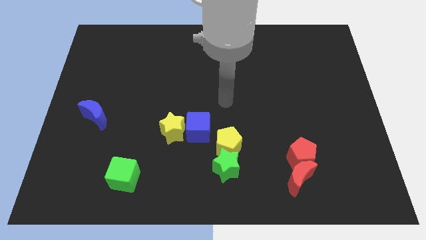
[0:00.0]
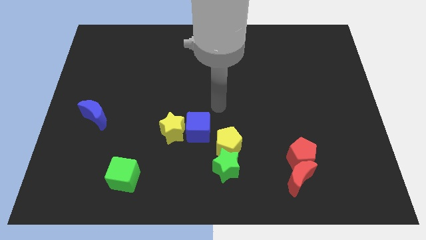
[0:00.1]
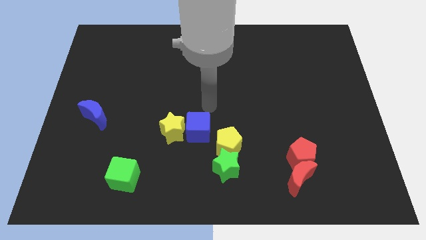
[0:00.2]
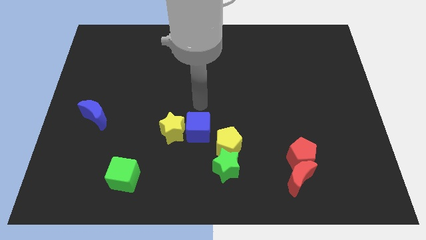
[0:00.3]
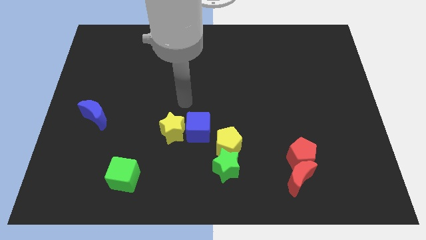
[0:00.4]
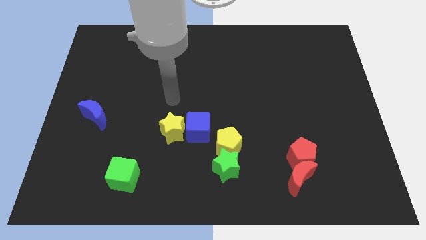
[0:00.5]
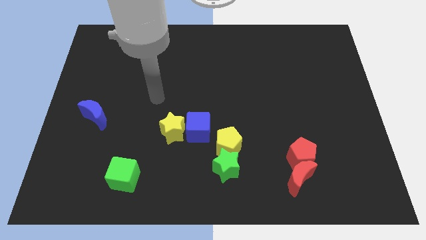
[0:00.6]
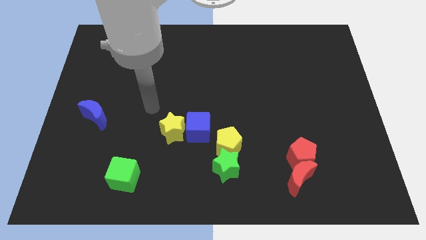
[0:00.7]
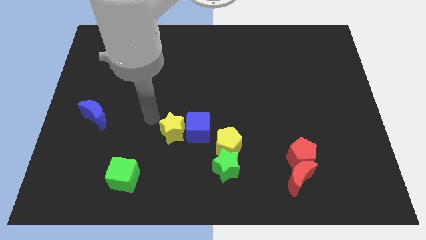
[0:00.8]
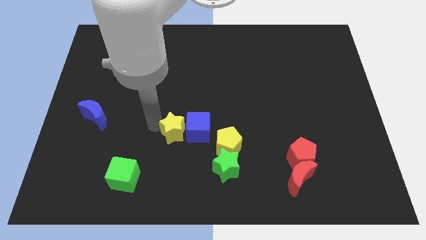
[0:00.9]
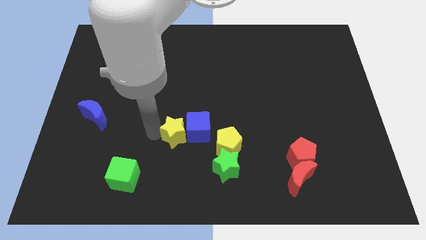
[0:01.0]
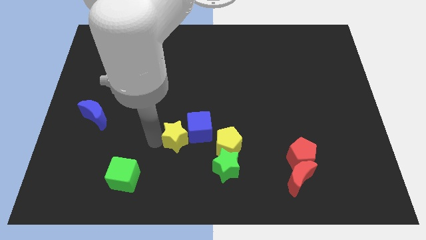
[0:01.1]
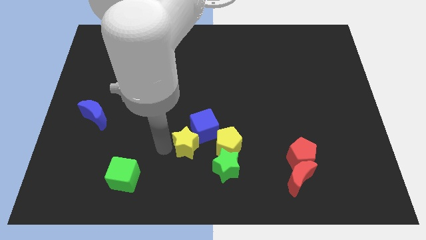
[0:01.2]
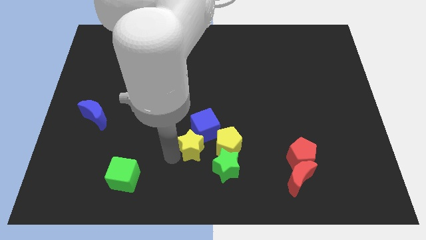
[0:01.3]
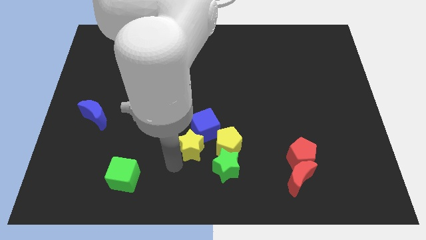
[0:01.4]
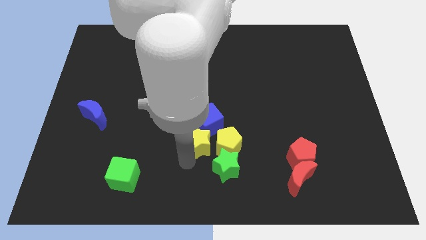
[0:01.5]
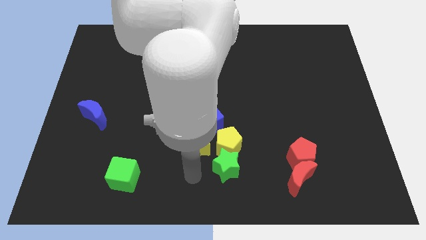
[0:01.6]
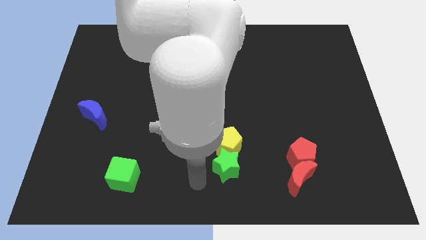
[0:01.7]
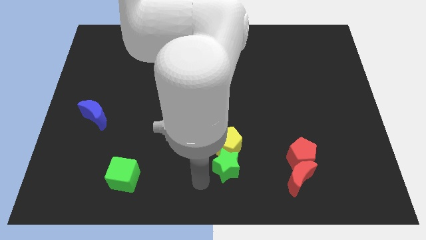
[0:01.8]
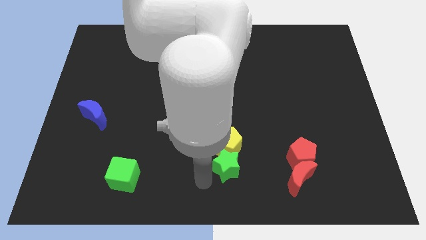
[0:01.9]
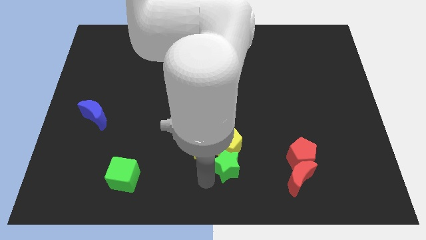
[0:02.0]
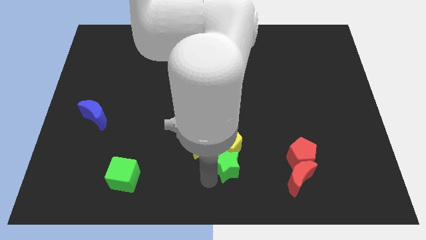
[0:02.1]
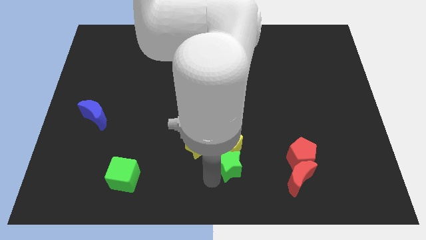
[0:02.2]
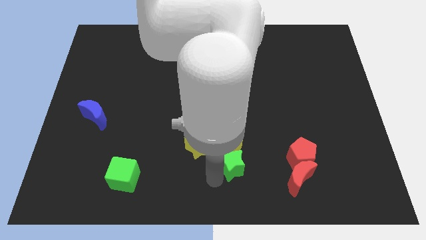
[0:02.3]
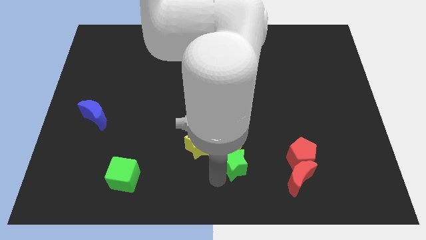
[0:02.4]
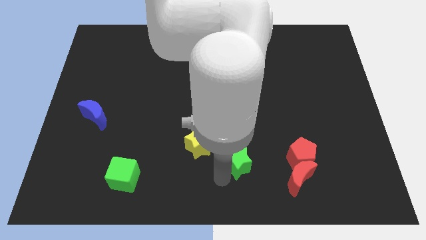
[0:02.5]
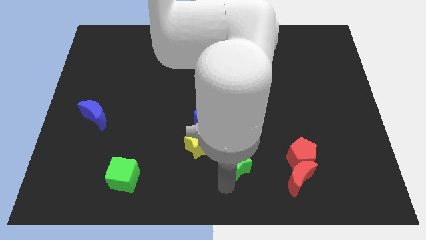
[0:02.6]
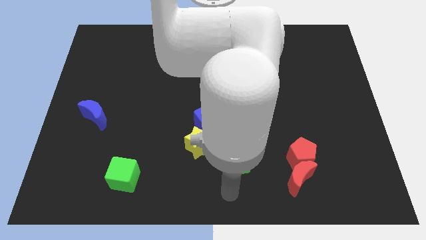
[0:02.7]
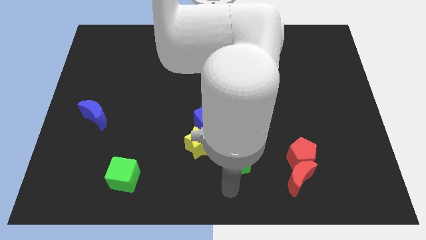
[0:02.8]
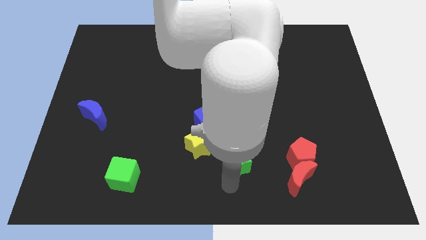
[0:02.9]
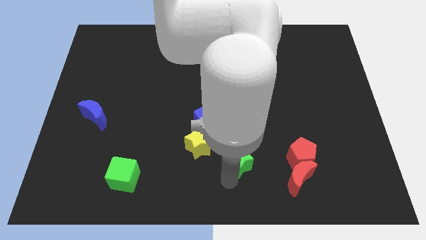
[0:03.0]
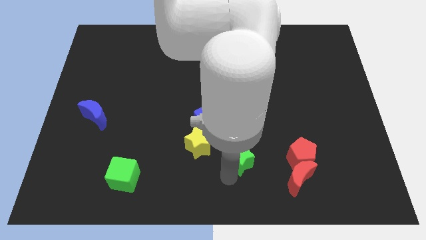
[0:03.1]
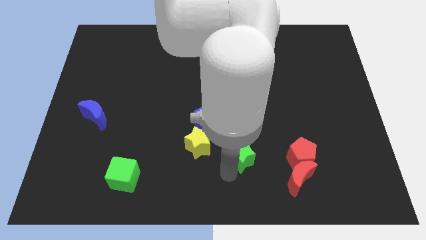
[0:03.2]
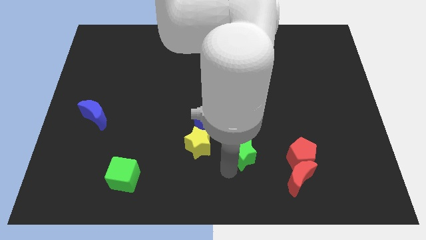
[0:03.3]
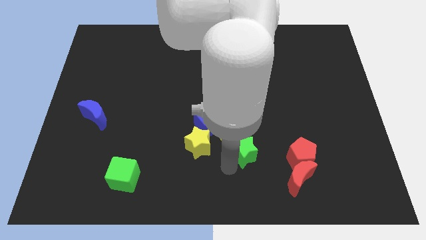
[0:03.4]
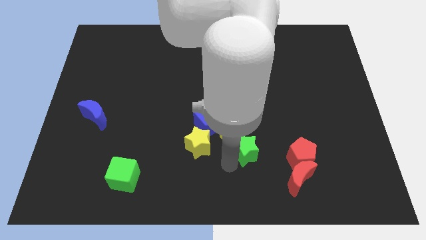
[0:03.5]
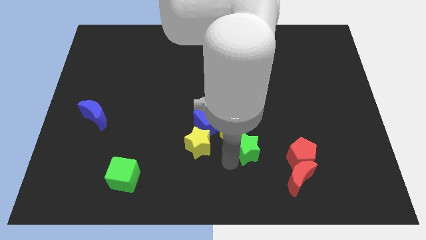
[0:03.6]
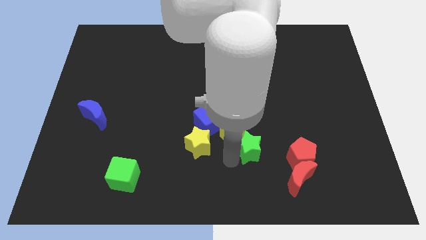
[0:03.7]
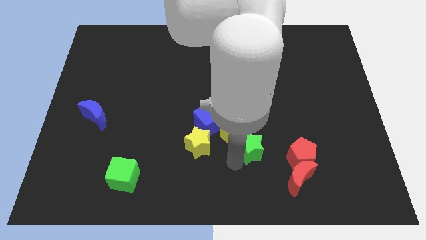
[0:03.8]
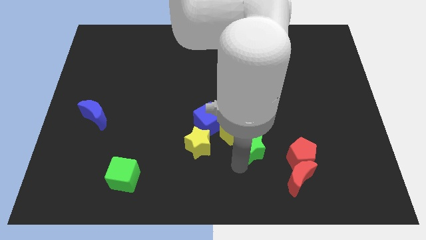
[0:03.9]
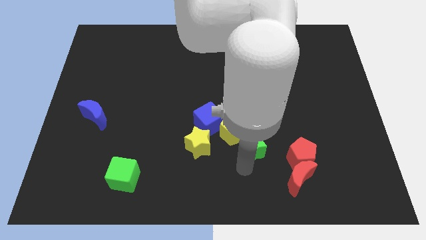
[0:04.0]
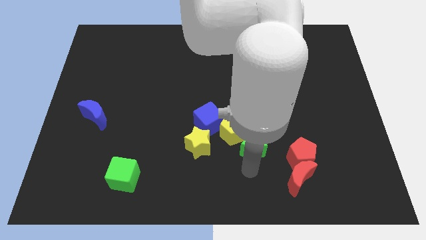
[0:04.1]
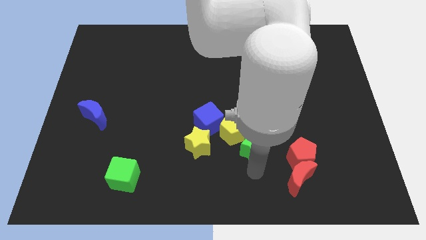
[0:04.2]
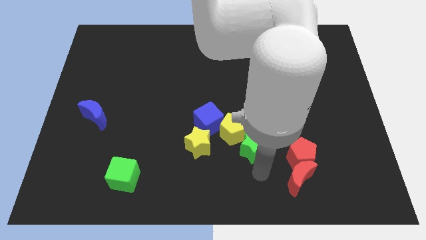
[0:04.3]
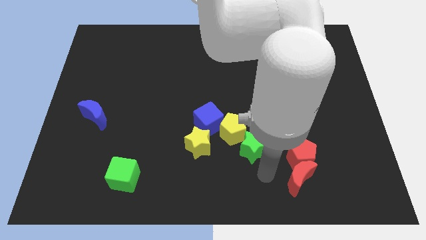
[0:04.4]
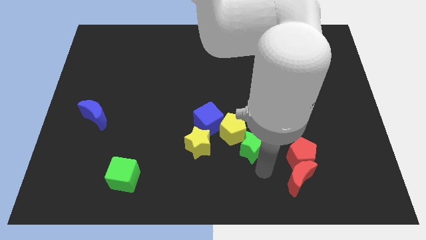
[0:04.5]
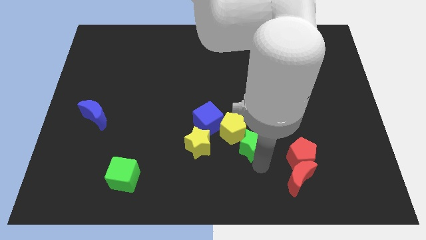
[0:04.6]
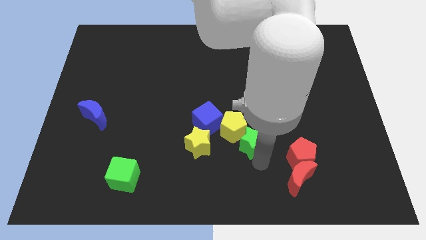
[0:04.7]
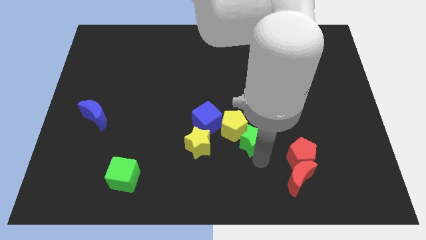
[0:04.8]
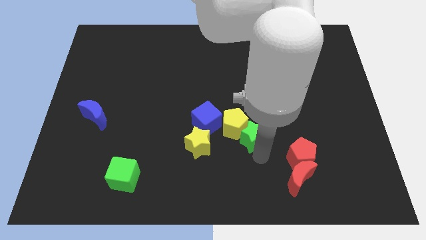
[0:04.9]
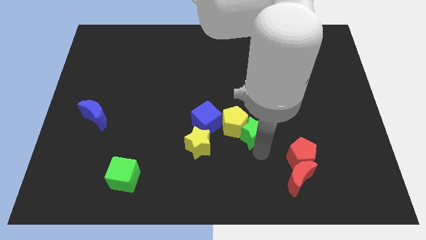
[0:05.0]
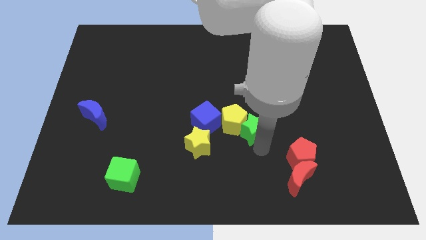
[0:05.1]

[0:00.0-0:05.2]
move the green star to the middle

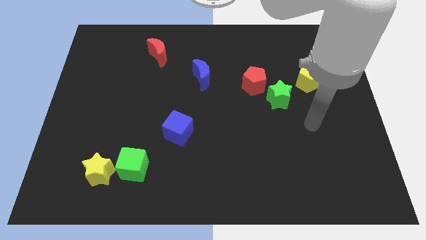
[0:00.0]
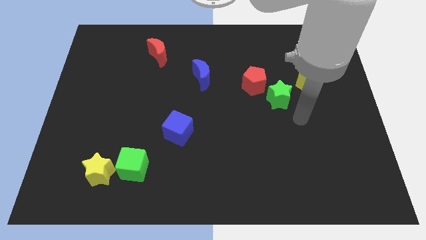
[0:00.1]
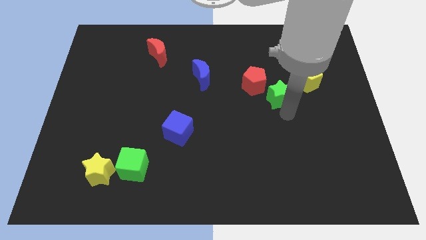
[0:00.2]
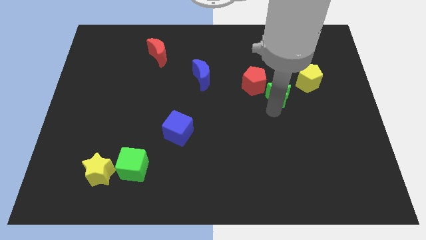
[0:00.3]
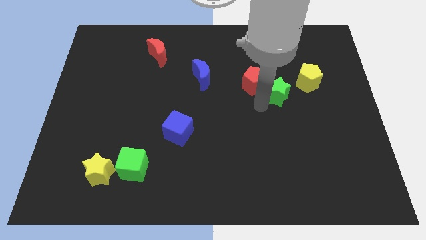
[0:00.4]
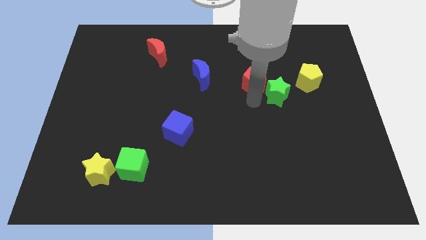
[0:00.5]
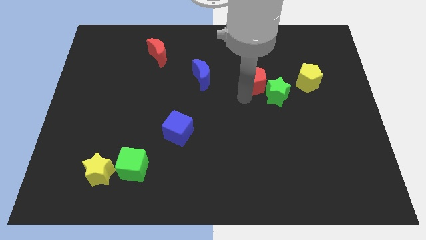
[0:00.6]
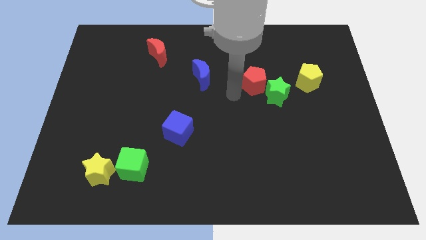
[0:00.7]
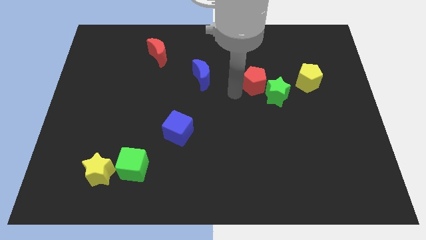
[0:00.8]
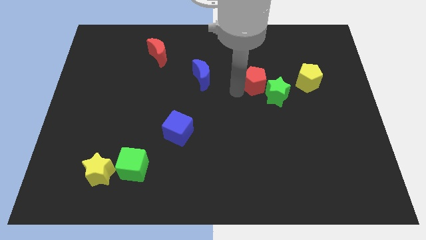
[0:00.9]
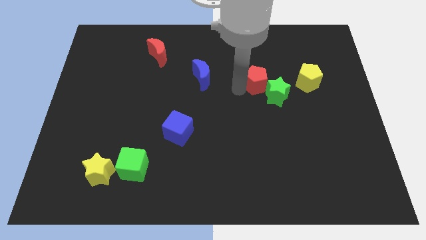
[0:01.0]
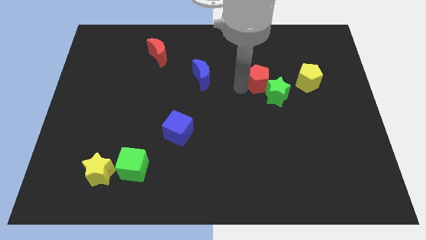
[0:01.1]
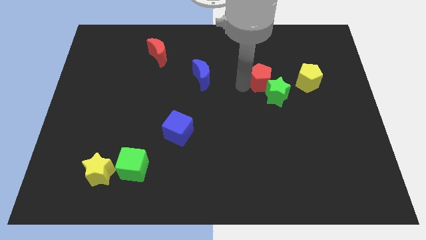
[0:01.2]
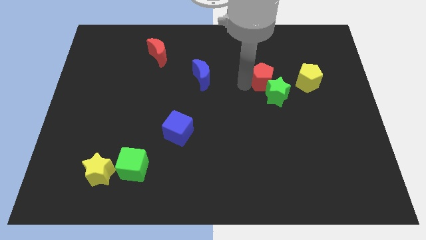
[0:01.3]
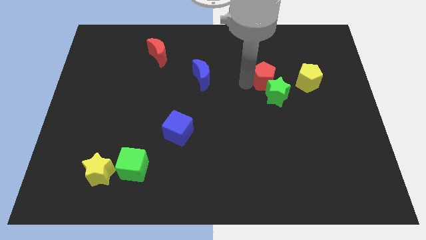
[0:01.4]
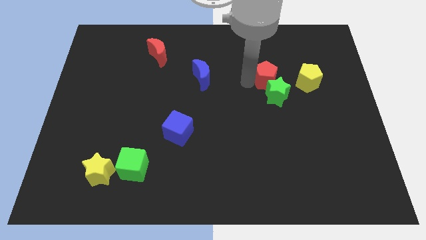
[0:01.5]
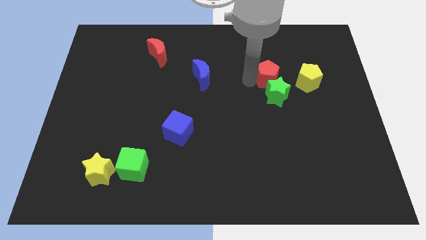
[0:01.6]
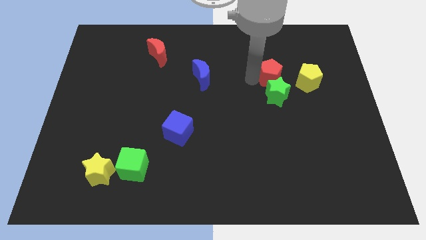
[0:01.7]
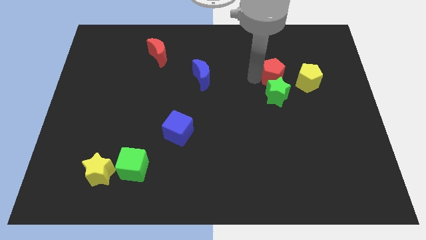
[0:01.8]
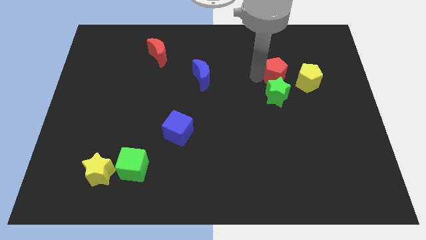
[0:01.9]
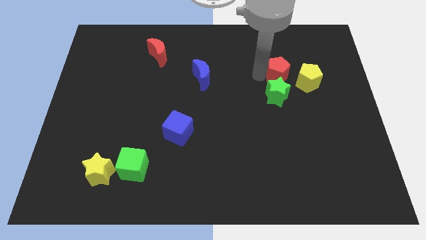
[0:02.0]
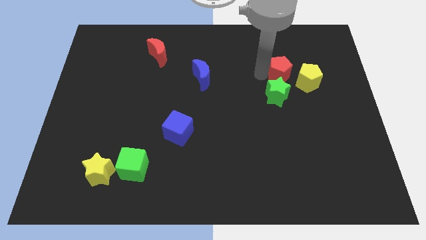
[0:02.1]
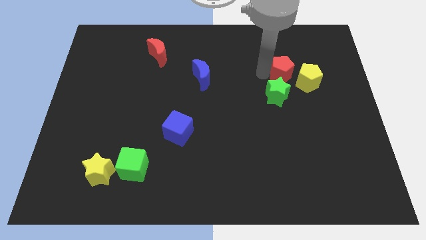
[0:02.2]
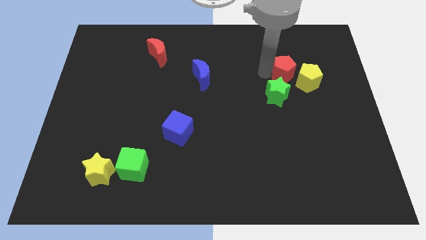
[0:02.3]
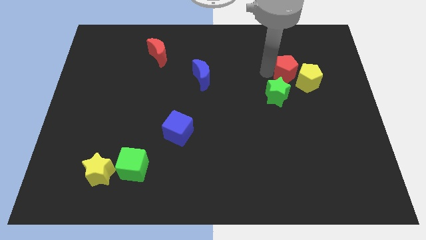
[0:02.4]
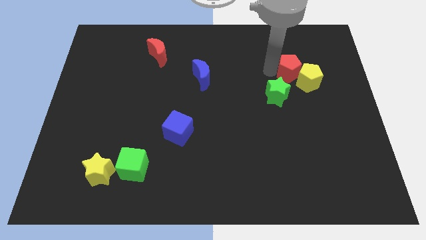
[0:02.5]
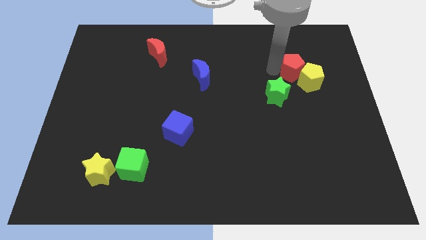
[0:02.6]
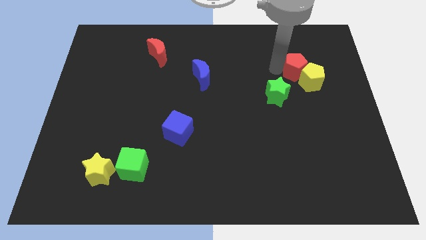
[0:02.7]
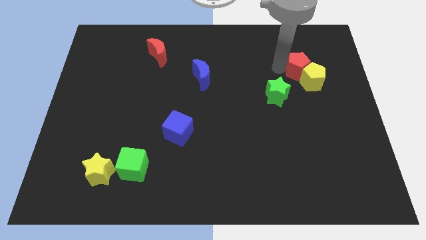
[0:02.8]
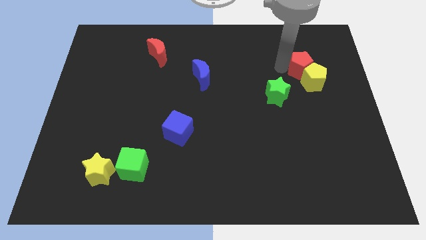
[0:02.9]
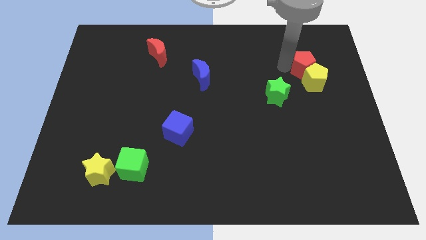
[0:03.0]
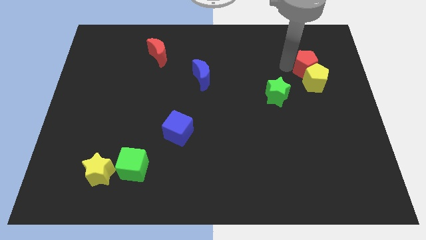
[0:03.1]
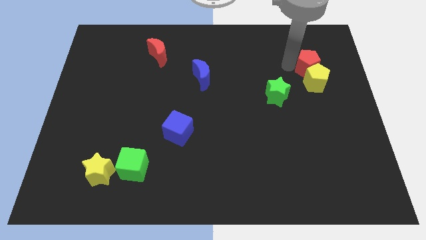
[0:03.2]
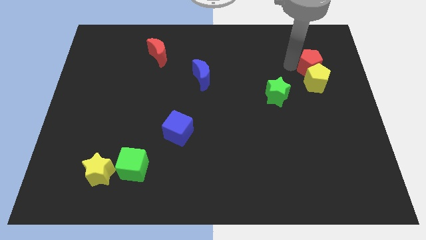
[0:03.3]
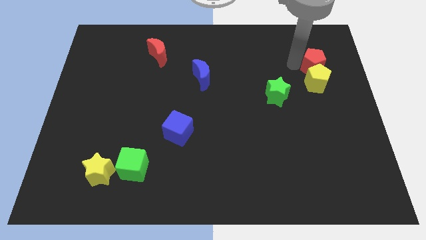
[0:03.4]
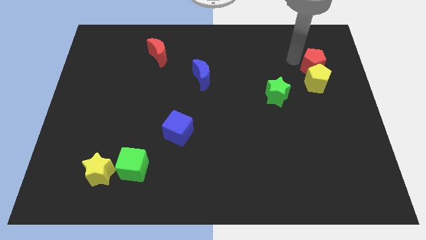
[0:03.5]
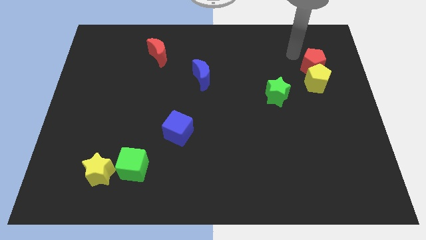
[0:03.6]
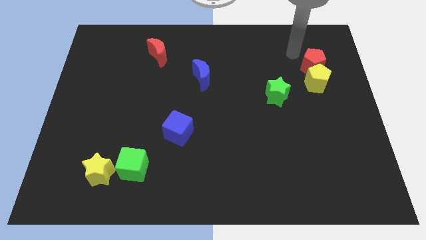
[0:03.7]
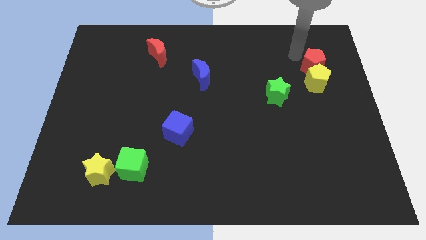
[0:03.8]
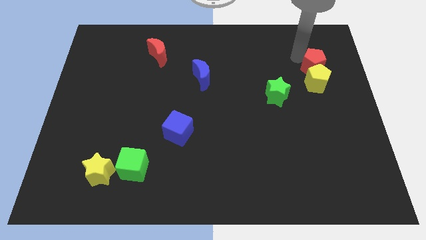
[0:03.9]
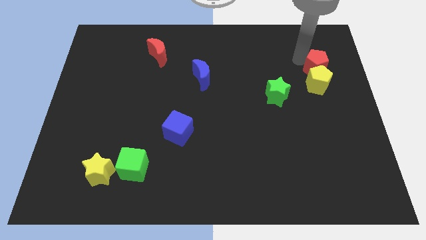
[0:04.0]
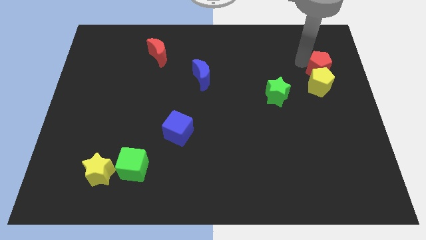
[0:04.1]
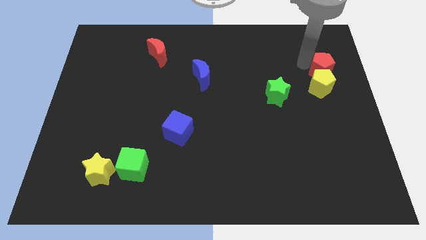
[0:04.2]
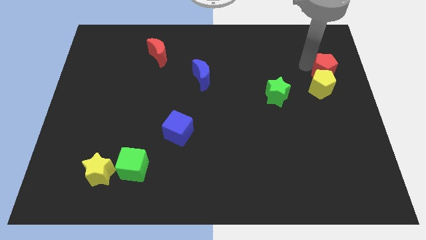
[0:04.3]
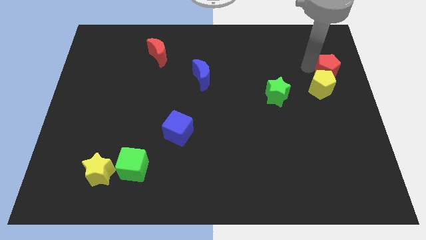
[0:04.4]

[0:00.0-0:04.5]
move the red pentagon to the right side
